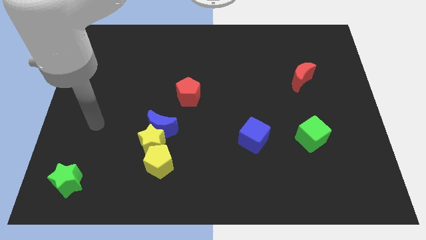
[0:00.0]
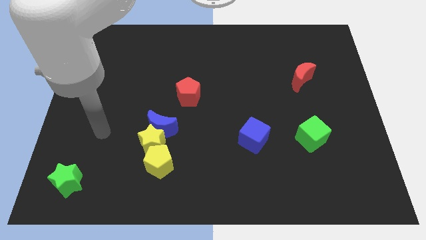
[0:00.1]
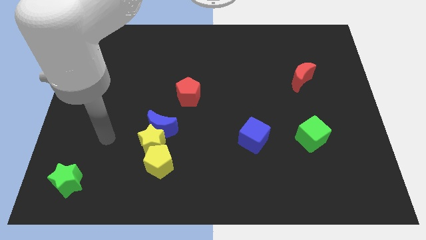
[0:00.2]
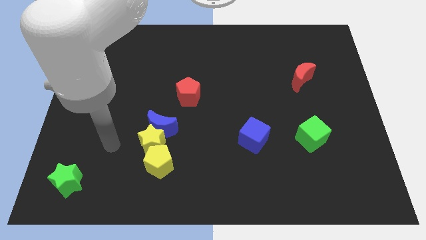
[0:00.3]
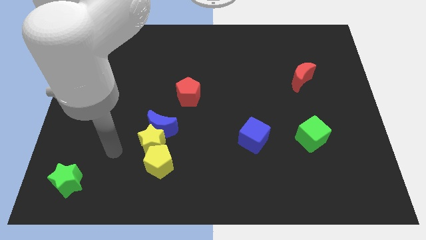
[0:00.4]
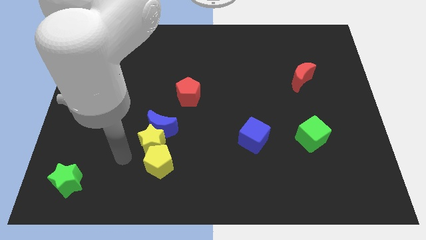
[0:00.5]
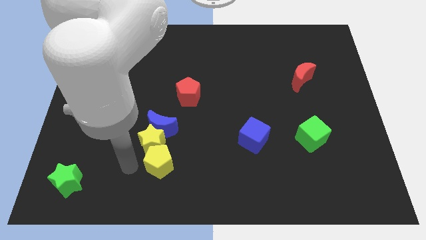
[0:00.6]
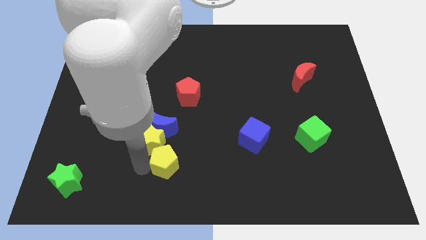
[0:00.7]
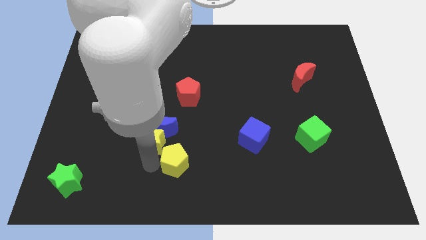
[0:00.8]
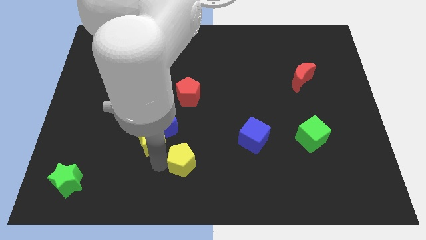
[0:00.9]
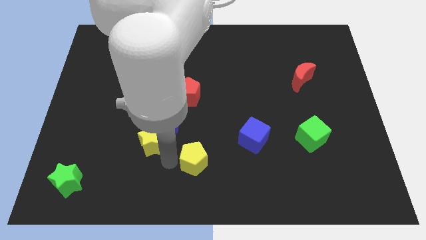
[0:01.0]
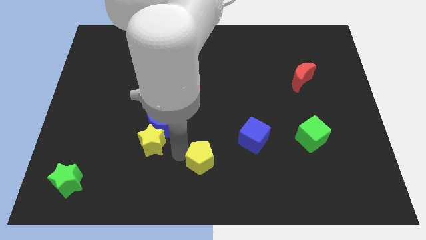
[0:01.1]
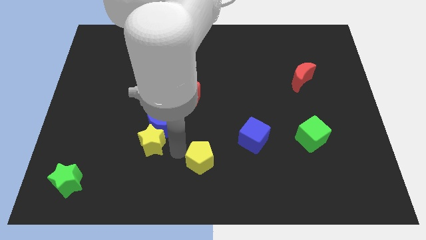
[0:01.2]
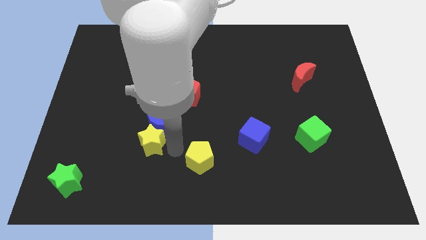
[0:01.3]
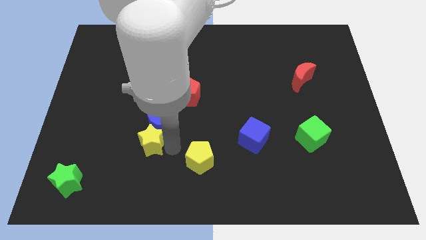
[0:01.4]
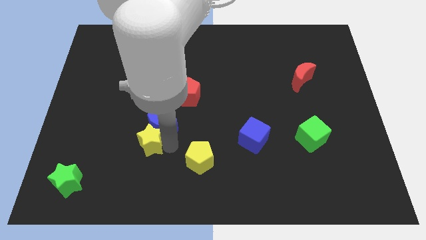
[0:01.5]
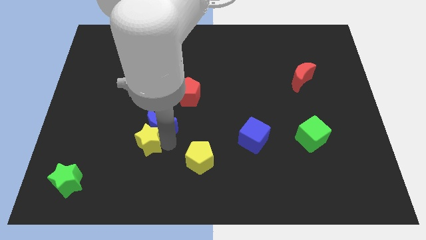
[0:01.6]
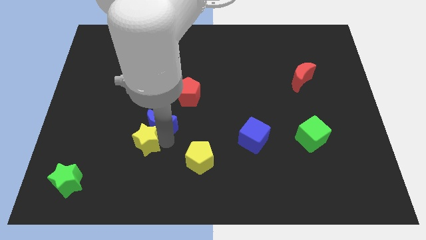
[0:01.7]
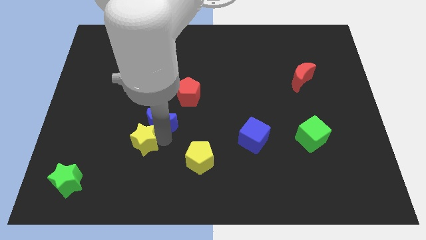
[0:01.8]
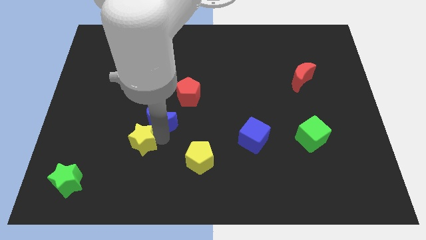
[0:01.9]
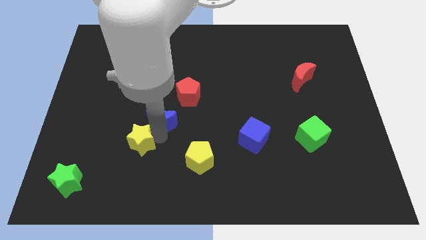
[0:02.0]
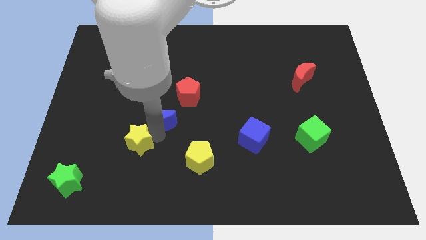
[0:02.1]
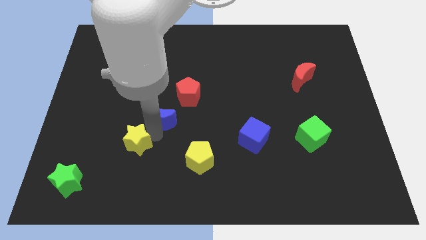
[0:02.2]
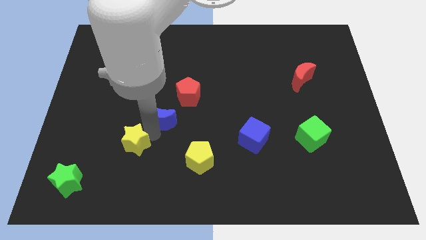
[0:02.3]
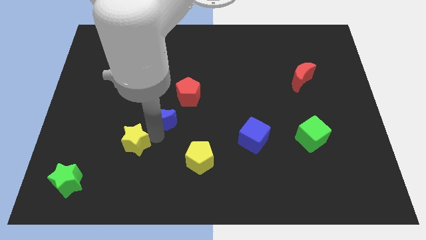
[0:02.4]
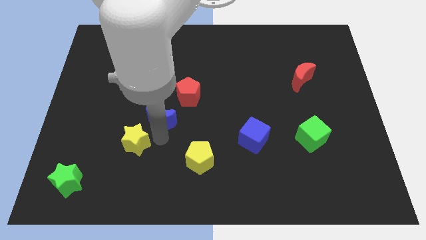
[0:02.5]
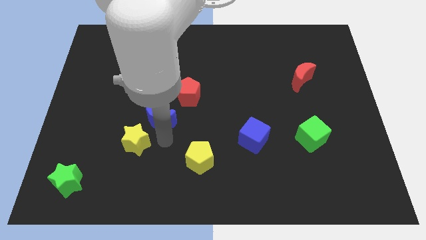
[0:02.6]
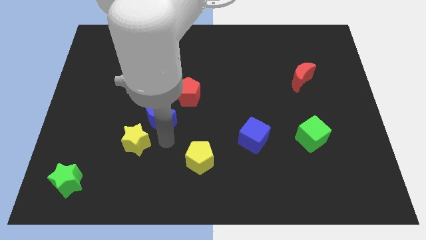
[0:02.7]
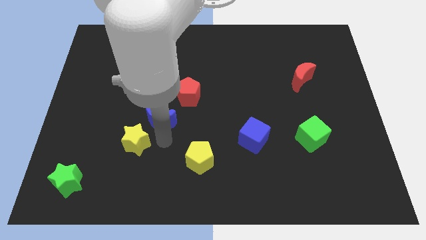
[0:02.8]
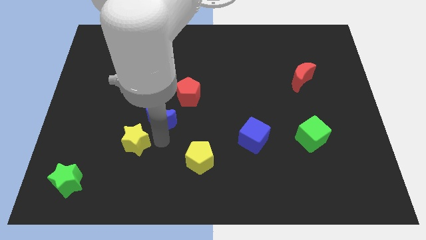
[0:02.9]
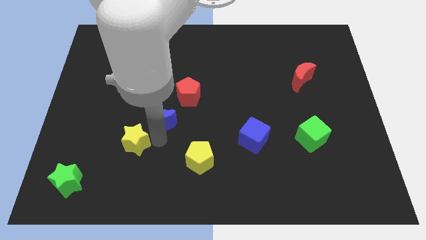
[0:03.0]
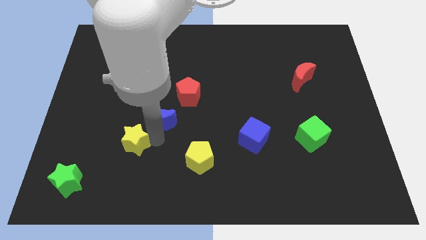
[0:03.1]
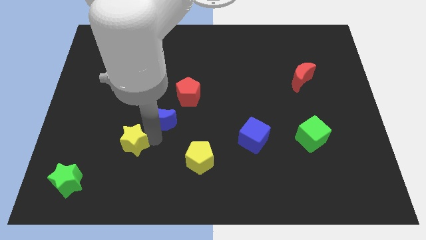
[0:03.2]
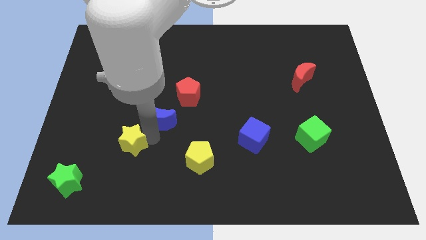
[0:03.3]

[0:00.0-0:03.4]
pull the yellow star apart from the blue moon and yellow pentagon

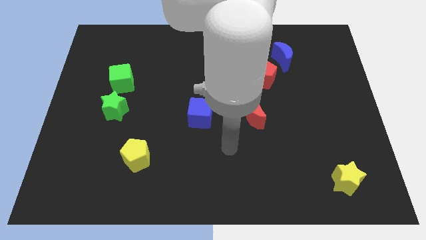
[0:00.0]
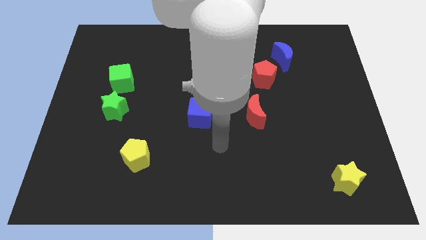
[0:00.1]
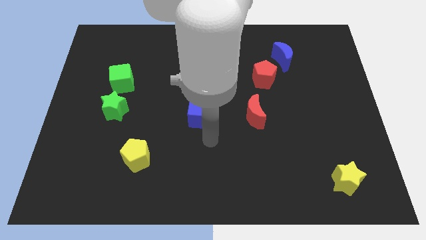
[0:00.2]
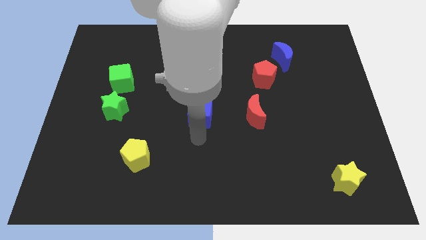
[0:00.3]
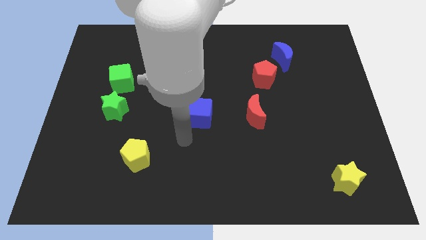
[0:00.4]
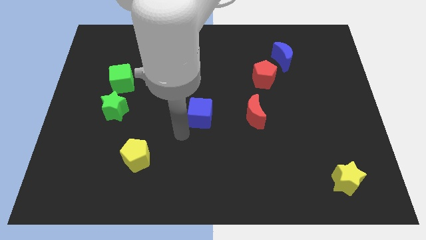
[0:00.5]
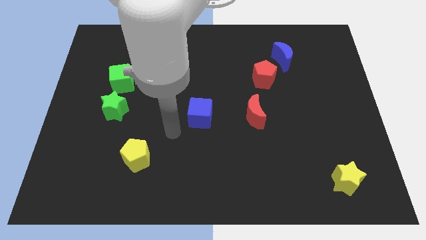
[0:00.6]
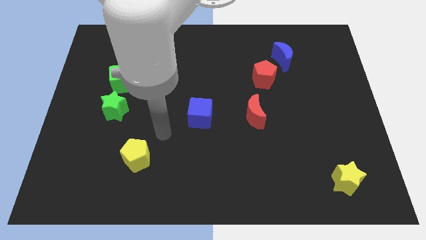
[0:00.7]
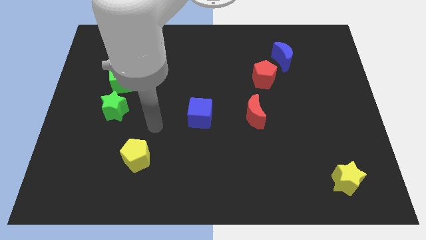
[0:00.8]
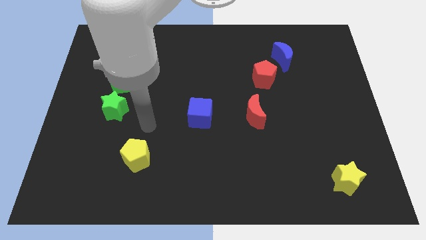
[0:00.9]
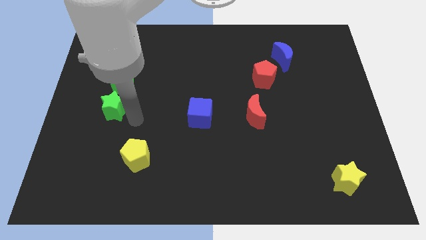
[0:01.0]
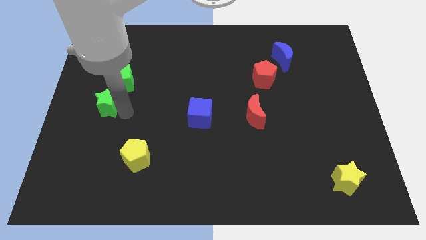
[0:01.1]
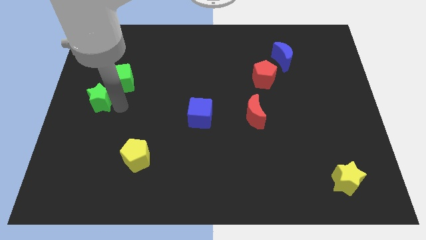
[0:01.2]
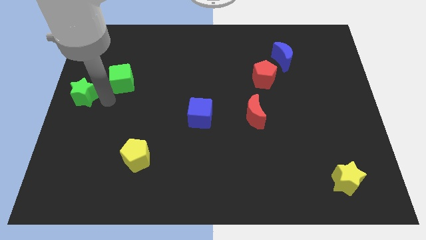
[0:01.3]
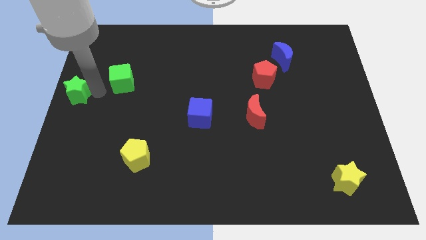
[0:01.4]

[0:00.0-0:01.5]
move the green cube away from the green star

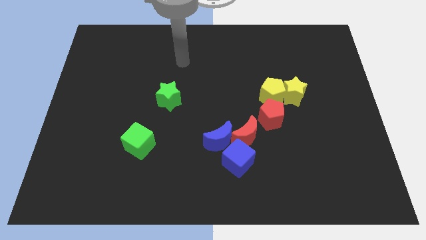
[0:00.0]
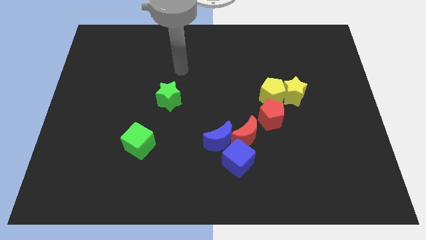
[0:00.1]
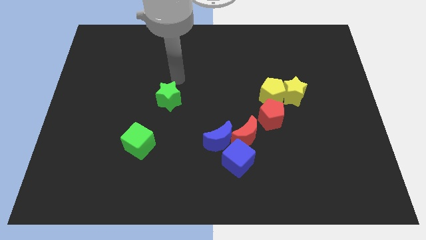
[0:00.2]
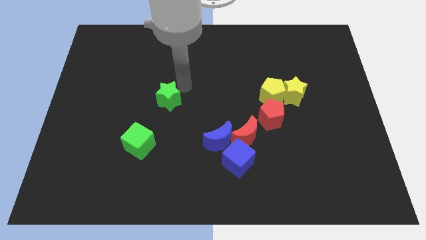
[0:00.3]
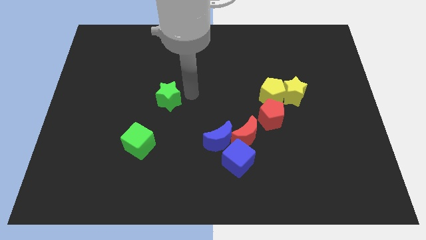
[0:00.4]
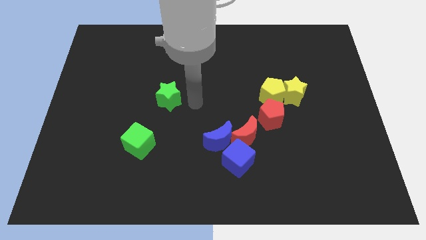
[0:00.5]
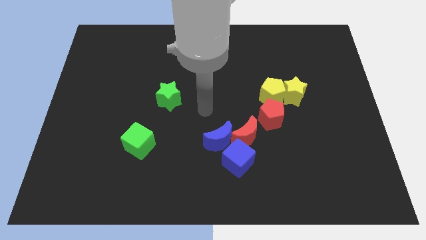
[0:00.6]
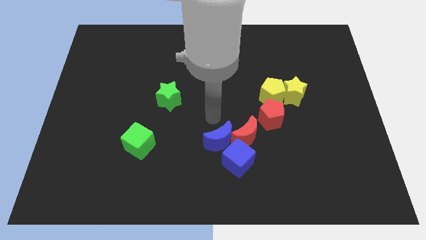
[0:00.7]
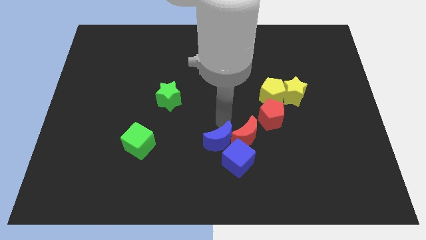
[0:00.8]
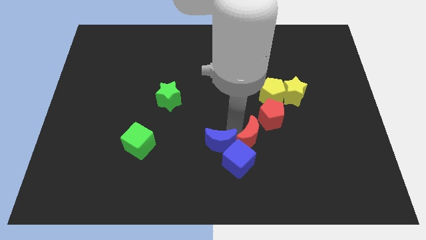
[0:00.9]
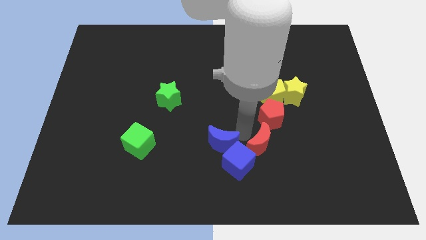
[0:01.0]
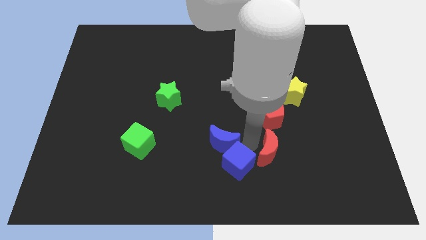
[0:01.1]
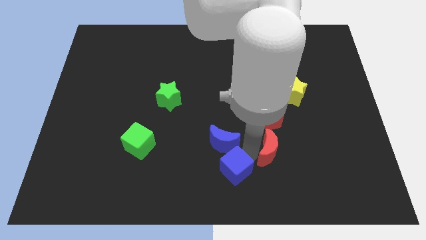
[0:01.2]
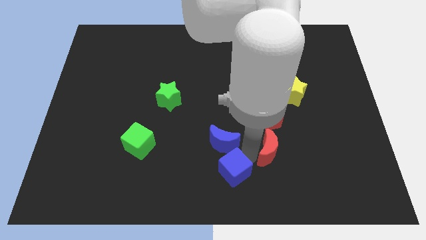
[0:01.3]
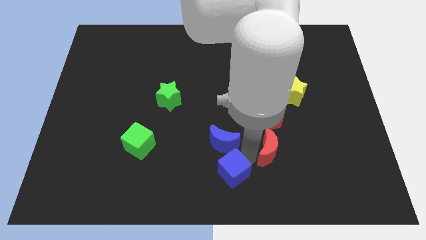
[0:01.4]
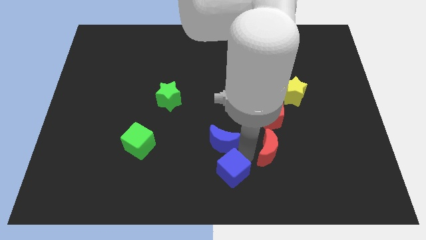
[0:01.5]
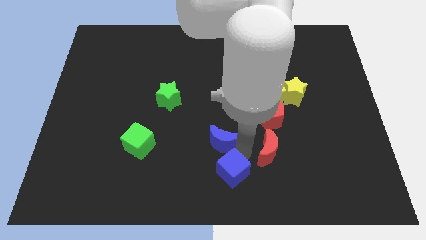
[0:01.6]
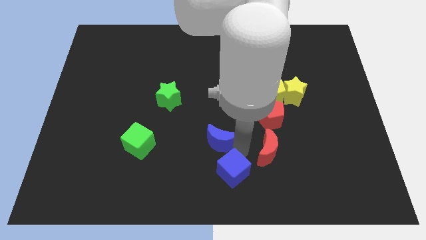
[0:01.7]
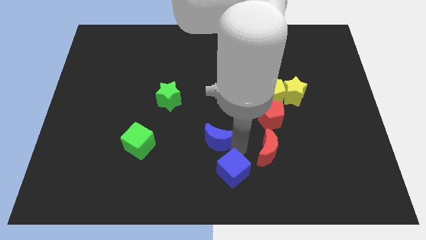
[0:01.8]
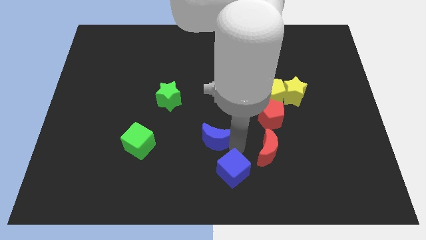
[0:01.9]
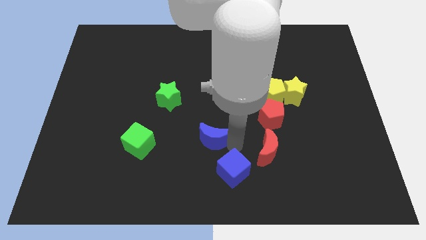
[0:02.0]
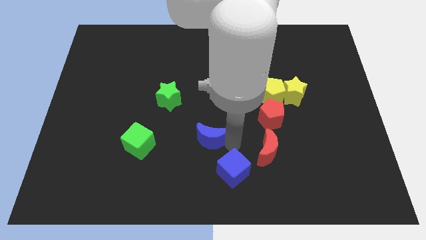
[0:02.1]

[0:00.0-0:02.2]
move the blue moon away from the red moon and blue cube

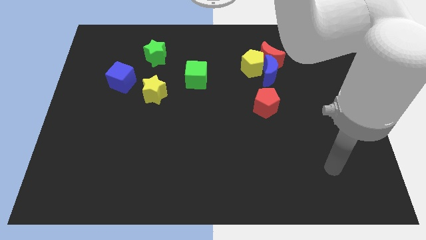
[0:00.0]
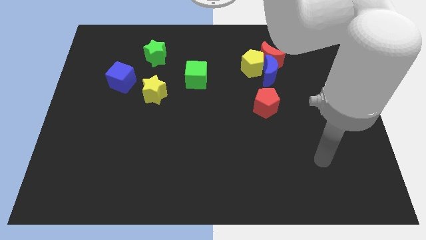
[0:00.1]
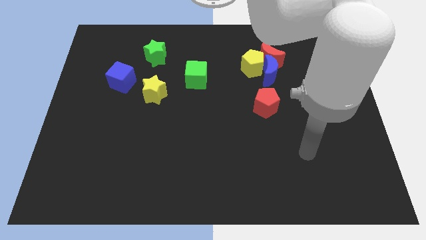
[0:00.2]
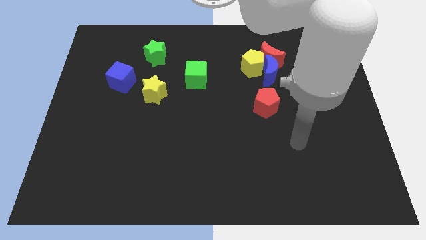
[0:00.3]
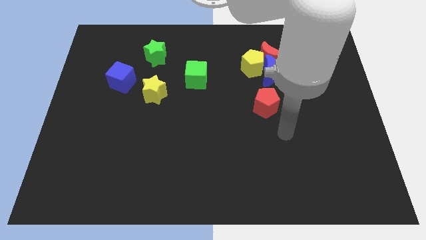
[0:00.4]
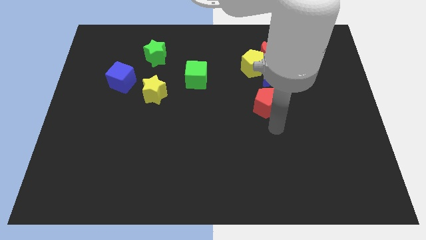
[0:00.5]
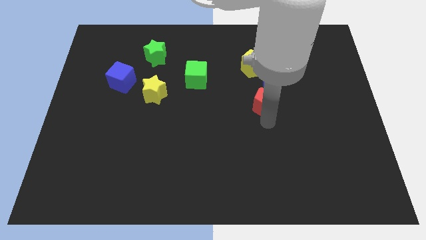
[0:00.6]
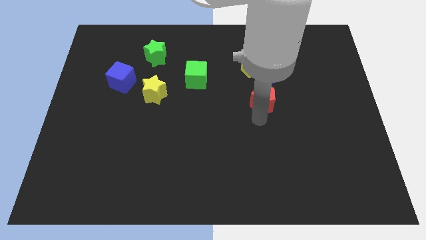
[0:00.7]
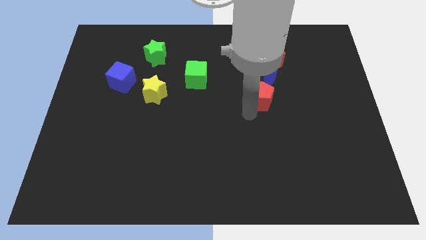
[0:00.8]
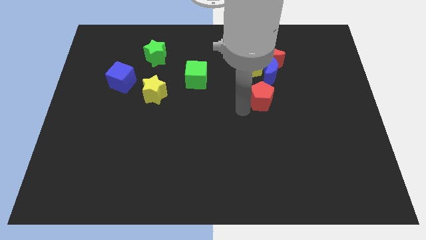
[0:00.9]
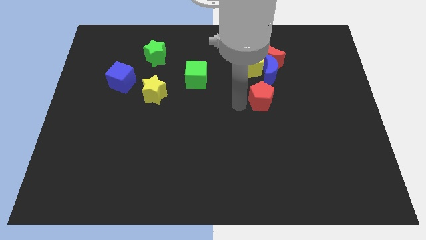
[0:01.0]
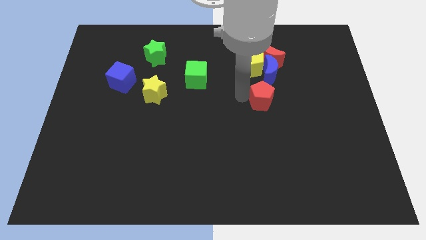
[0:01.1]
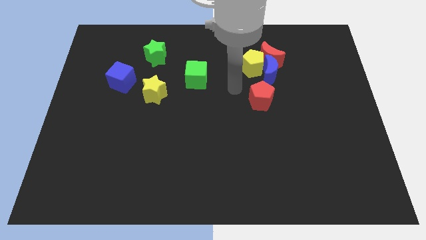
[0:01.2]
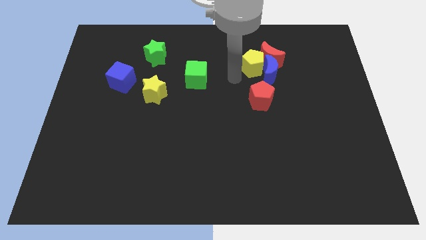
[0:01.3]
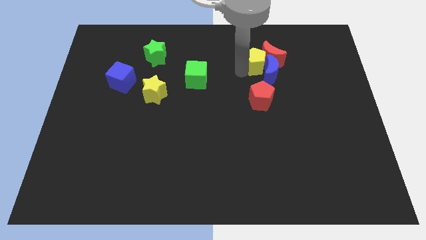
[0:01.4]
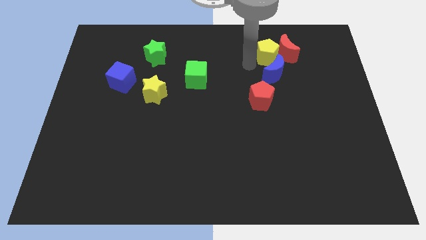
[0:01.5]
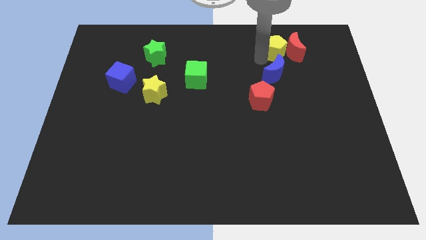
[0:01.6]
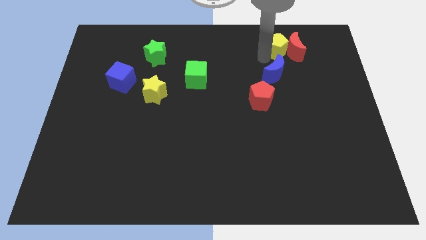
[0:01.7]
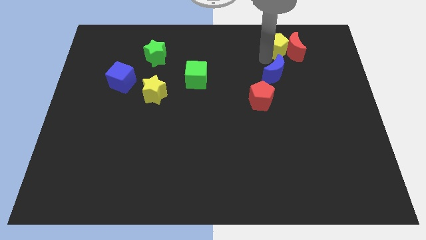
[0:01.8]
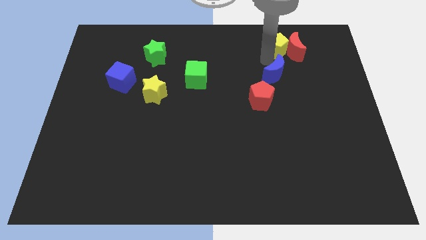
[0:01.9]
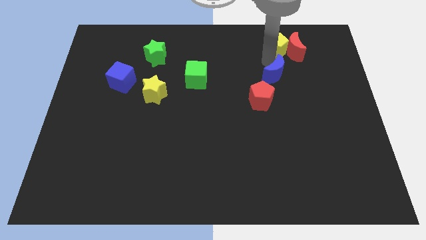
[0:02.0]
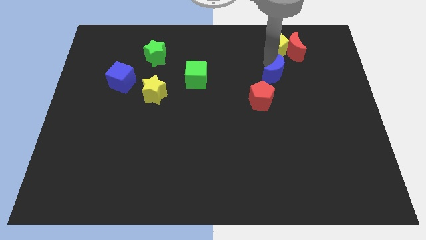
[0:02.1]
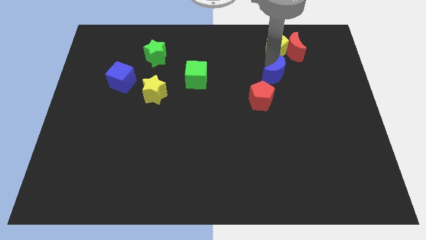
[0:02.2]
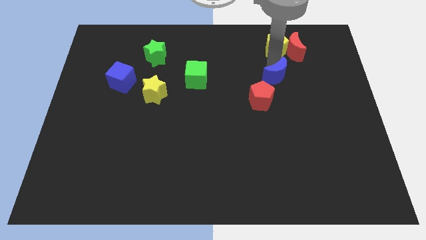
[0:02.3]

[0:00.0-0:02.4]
move the blue moon away from the yellow pentagon and red moon
